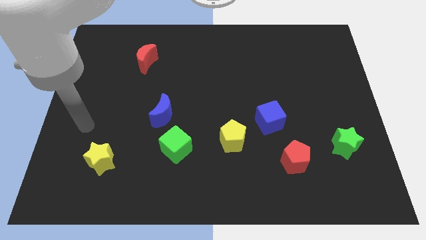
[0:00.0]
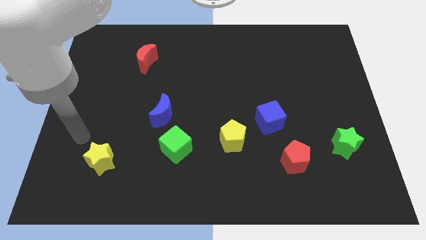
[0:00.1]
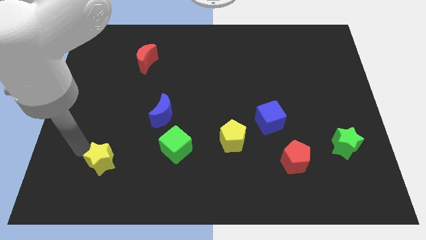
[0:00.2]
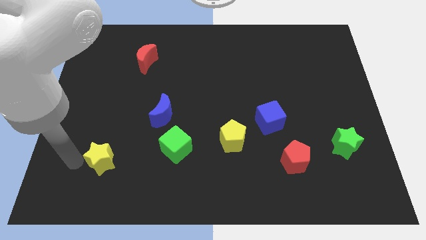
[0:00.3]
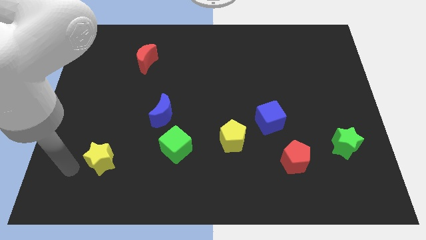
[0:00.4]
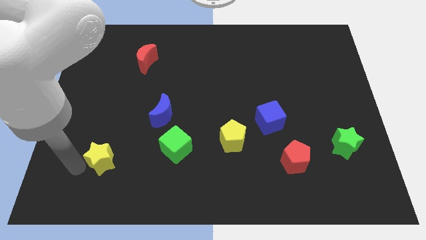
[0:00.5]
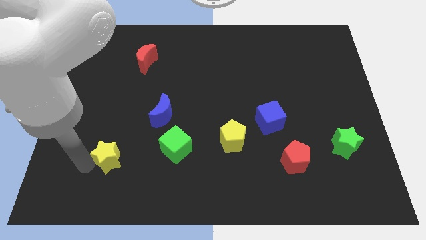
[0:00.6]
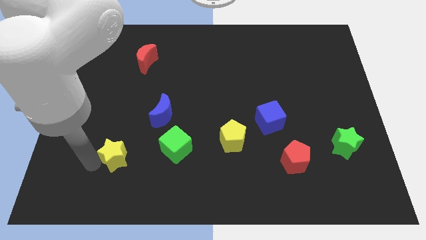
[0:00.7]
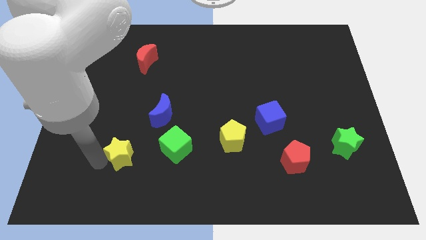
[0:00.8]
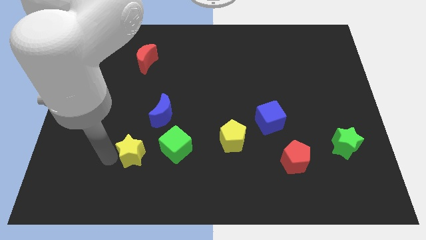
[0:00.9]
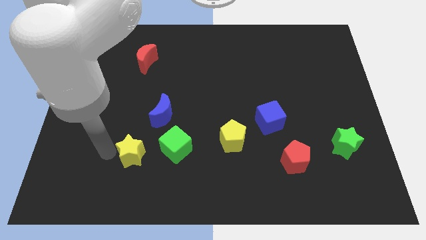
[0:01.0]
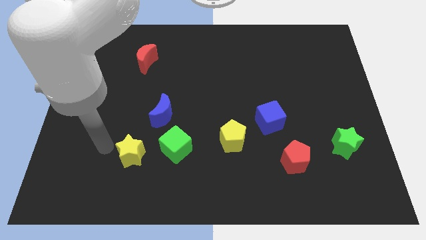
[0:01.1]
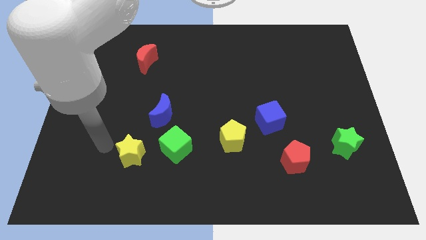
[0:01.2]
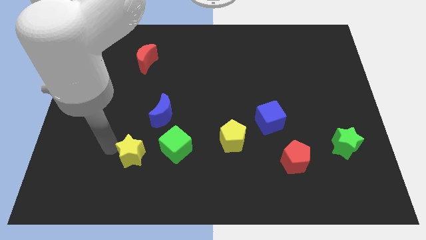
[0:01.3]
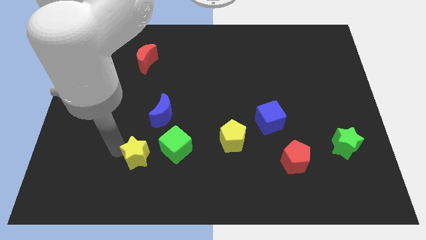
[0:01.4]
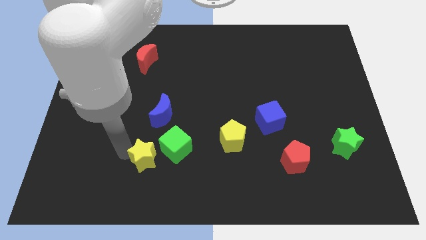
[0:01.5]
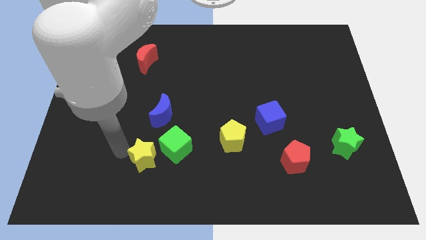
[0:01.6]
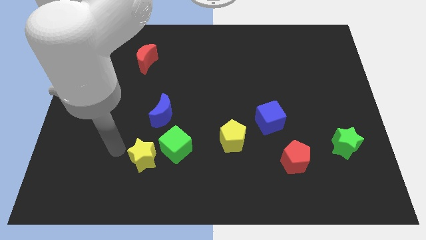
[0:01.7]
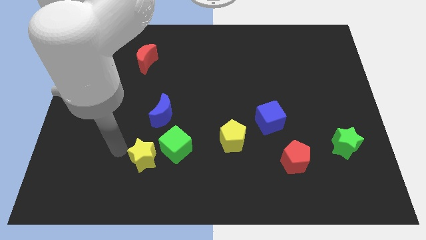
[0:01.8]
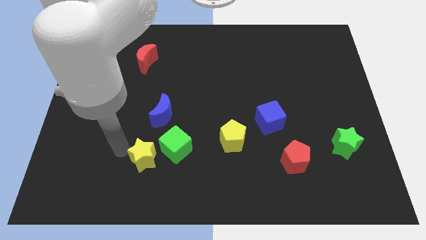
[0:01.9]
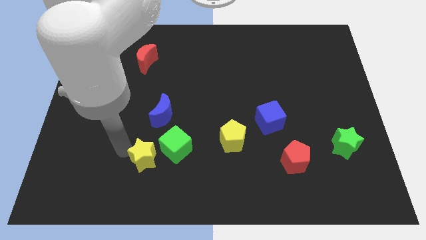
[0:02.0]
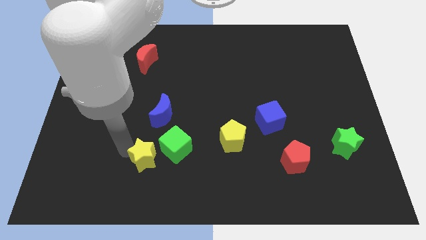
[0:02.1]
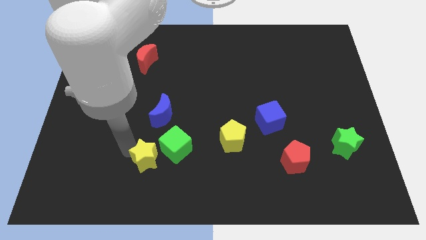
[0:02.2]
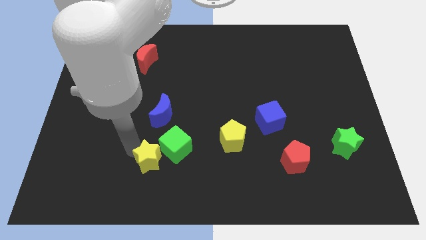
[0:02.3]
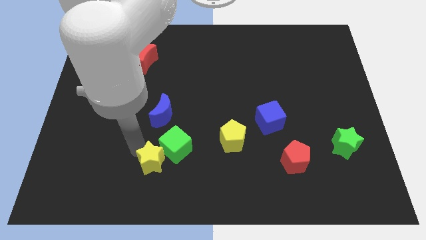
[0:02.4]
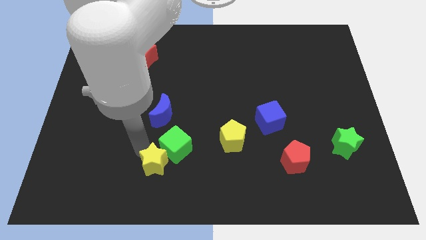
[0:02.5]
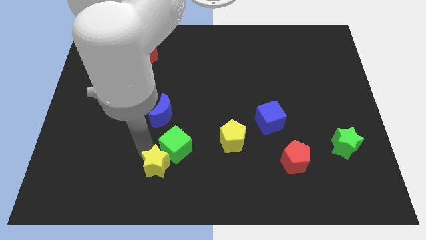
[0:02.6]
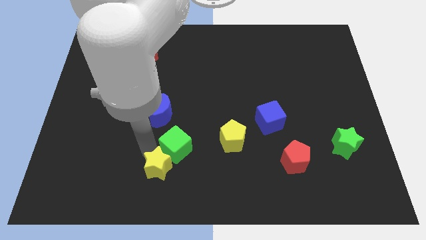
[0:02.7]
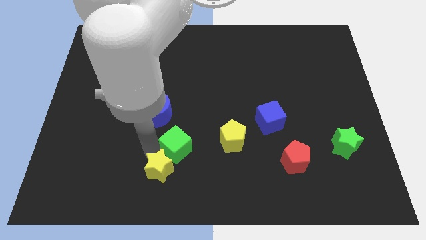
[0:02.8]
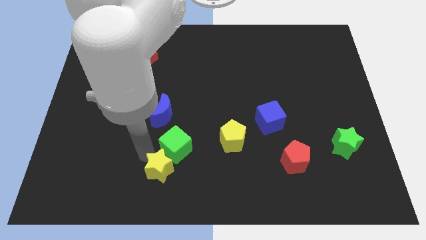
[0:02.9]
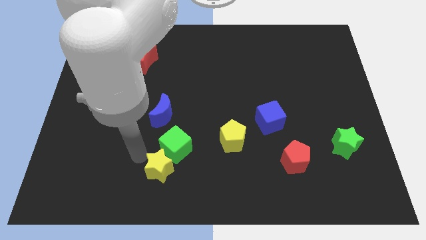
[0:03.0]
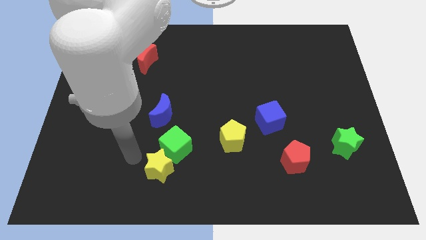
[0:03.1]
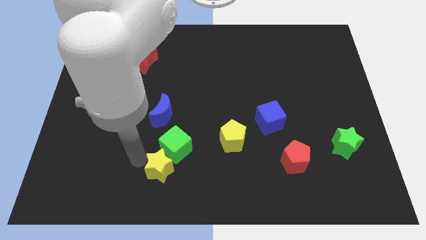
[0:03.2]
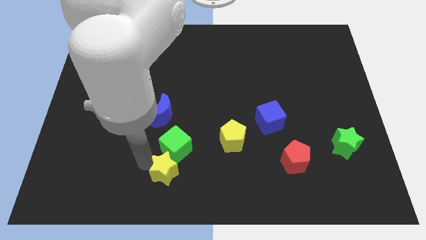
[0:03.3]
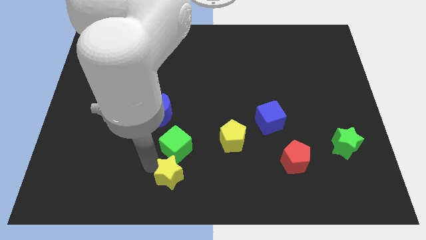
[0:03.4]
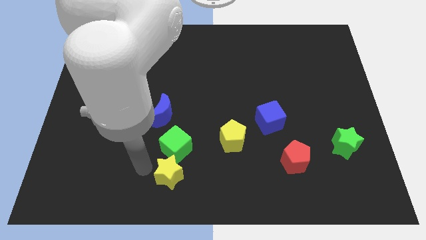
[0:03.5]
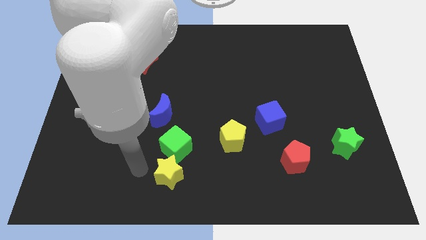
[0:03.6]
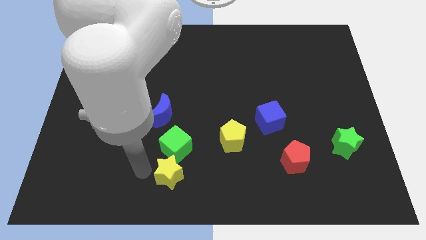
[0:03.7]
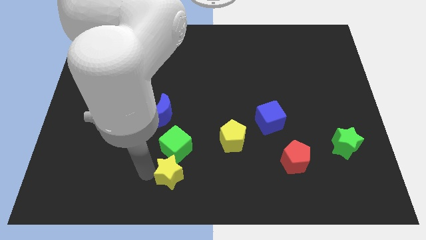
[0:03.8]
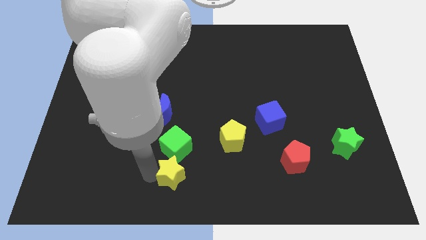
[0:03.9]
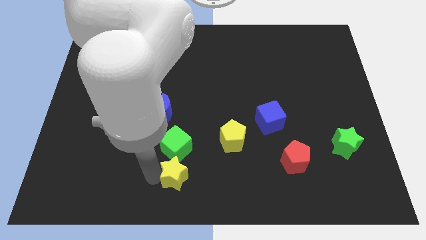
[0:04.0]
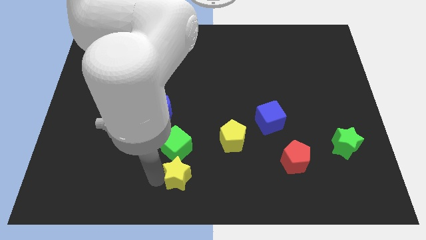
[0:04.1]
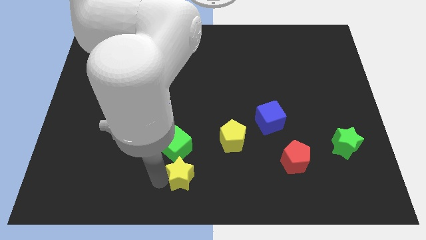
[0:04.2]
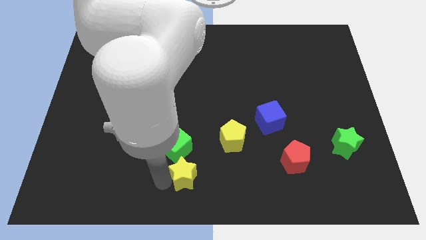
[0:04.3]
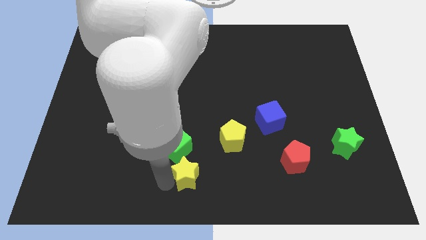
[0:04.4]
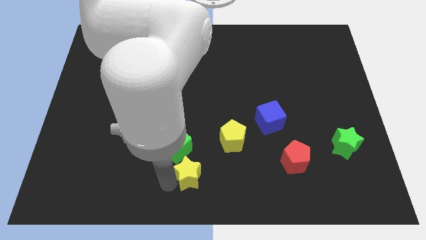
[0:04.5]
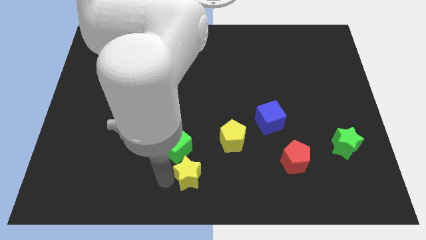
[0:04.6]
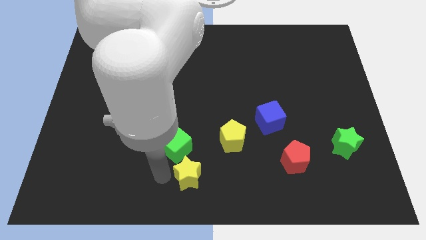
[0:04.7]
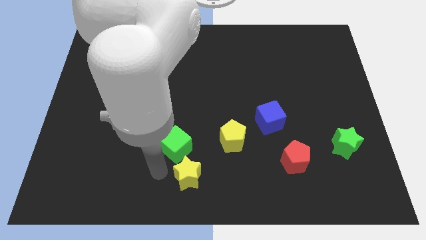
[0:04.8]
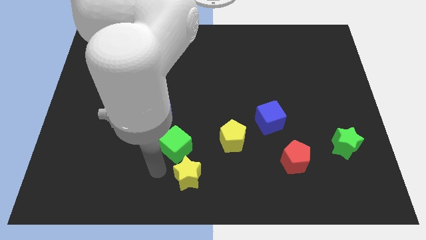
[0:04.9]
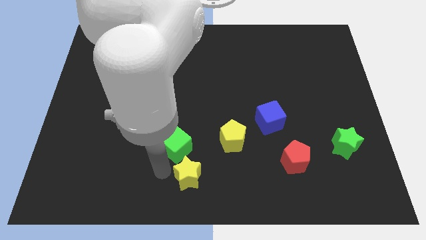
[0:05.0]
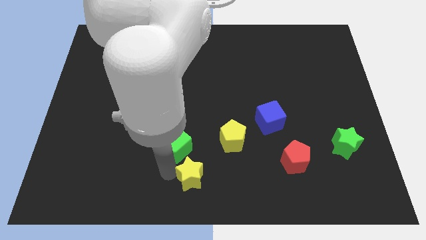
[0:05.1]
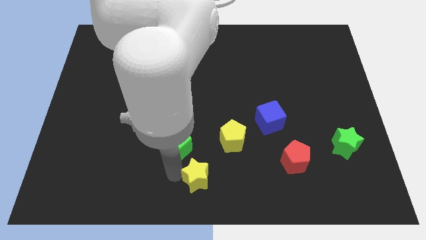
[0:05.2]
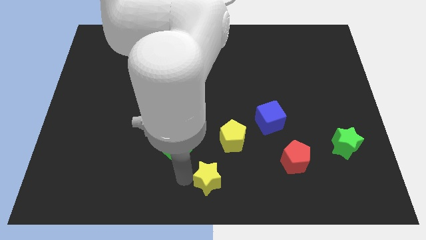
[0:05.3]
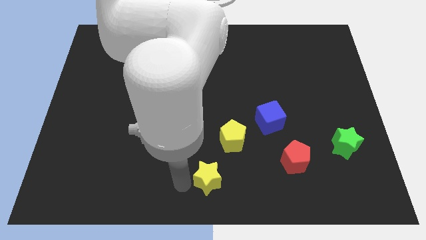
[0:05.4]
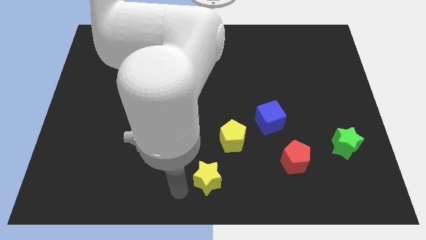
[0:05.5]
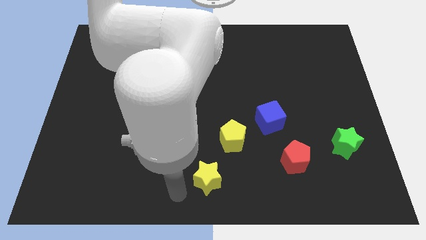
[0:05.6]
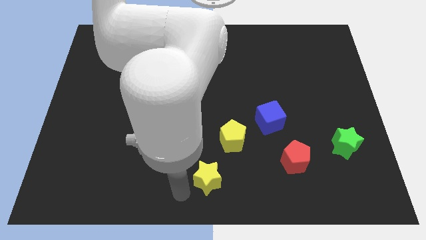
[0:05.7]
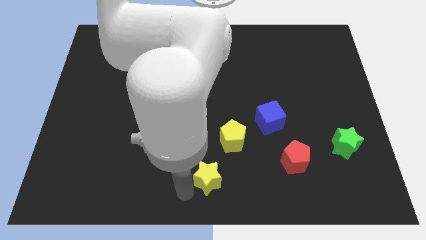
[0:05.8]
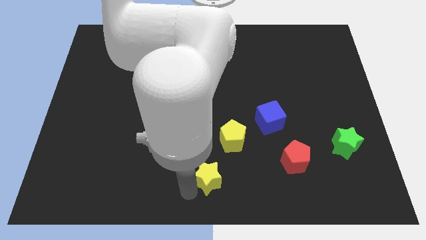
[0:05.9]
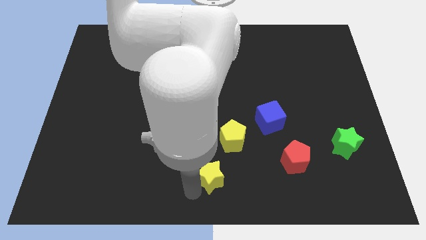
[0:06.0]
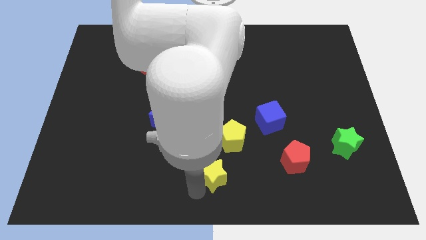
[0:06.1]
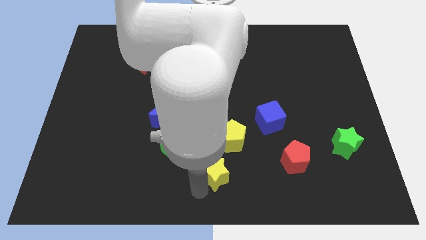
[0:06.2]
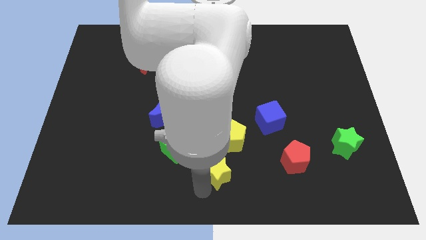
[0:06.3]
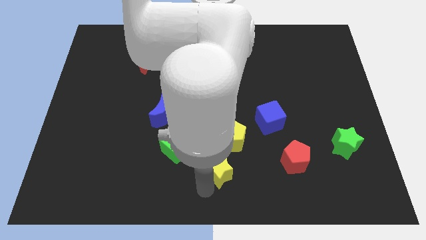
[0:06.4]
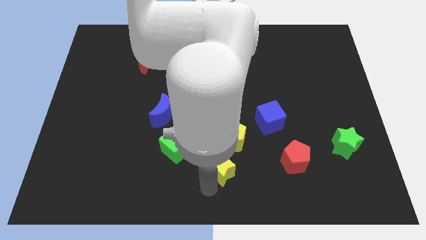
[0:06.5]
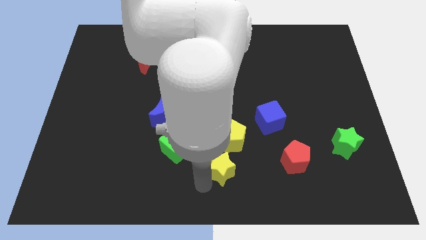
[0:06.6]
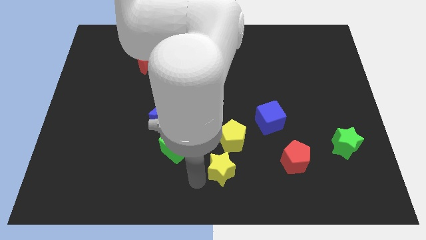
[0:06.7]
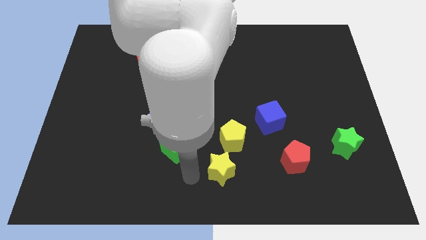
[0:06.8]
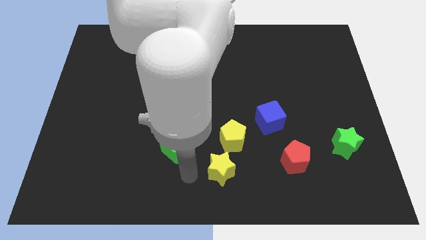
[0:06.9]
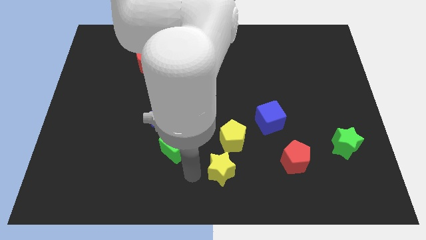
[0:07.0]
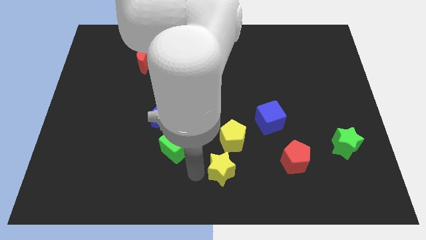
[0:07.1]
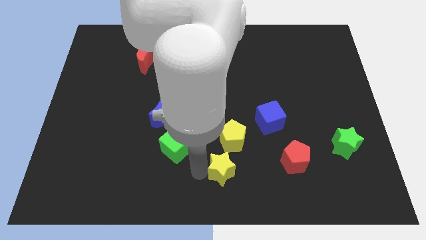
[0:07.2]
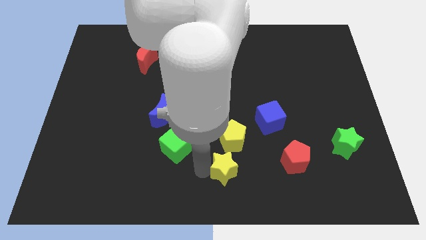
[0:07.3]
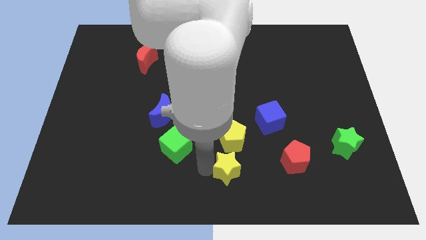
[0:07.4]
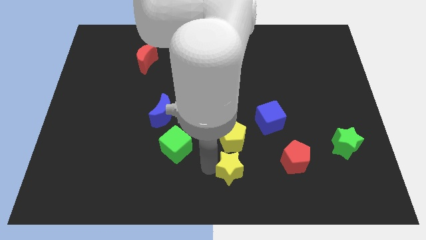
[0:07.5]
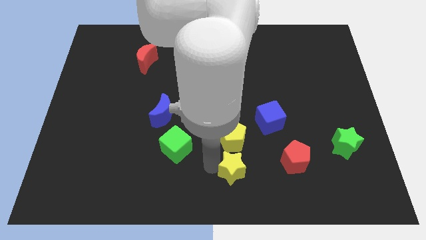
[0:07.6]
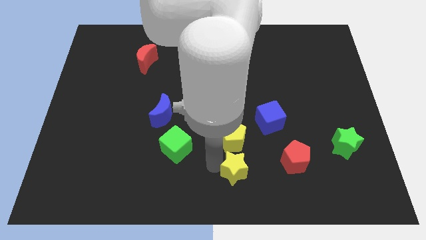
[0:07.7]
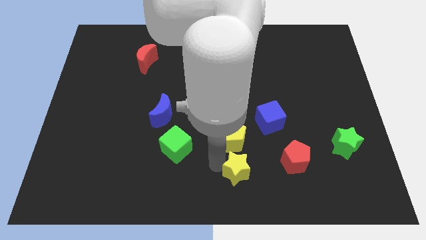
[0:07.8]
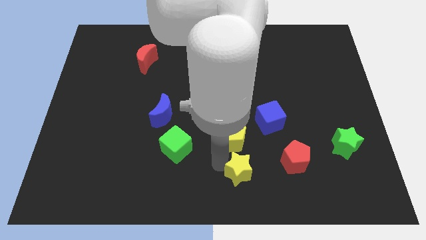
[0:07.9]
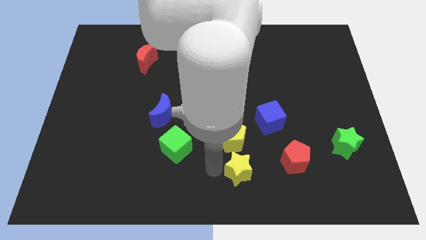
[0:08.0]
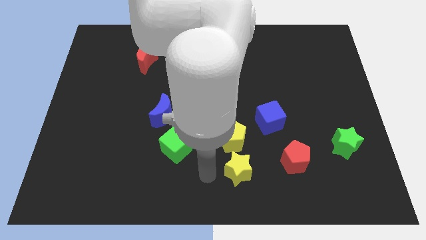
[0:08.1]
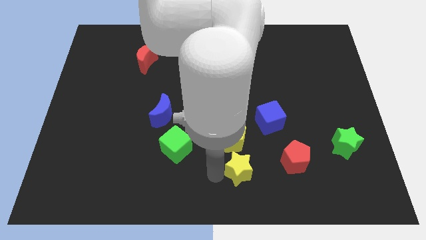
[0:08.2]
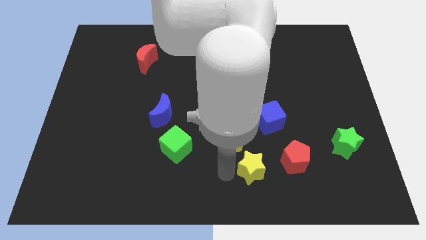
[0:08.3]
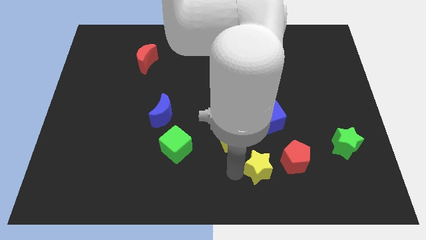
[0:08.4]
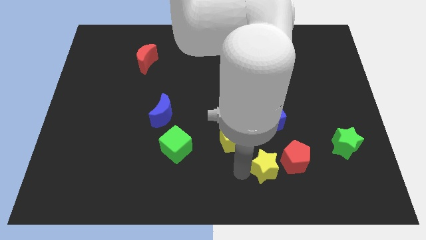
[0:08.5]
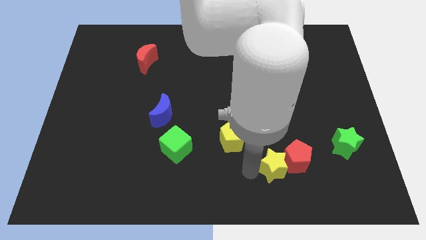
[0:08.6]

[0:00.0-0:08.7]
slide the yellow star next to the red pentagon
